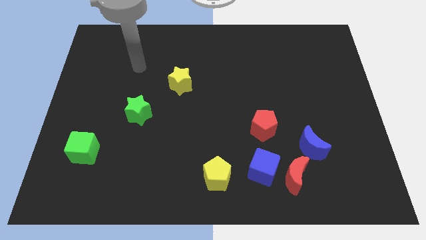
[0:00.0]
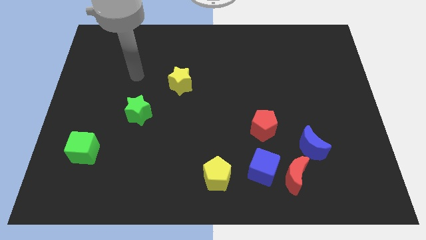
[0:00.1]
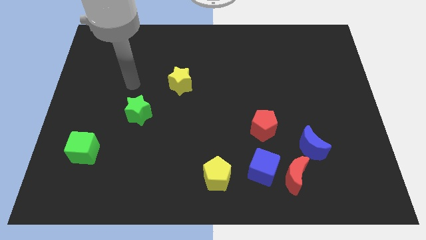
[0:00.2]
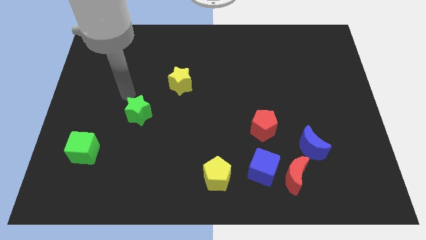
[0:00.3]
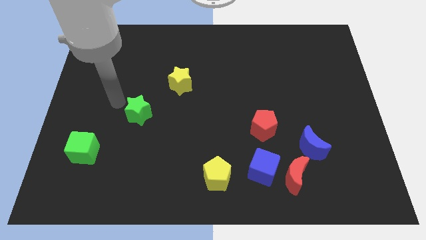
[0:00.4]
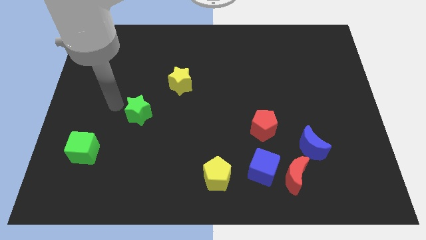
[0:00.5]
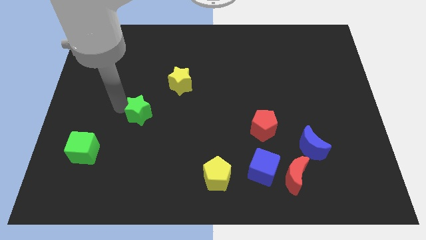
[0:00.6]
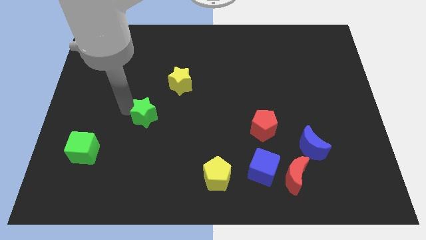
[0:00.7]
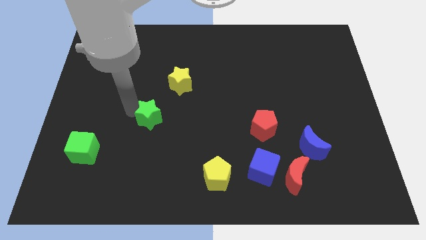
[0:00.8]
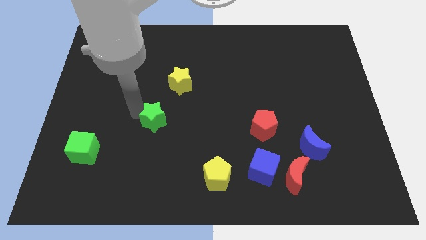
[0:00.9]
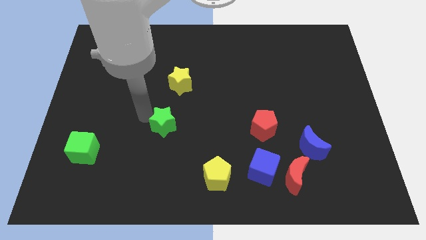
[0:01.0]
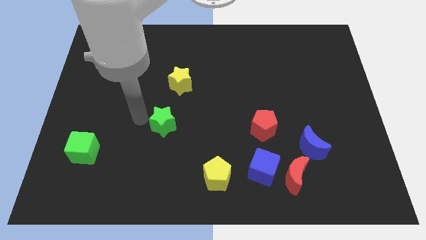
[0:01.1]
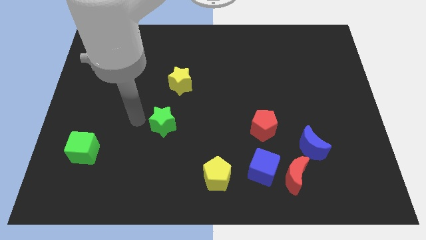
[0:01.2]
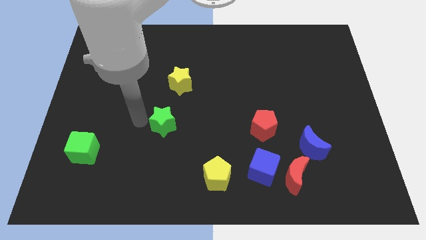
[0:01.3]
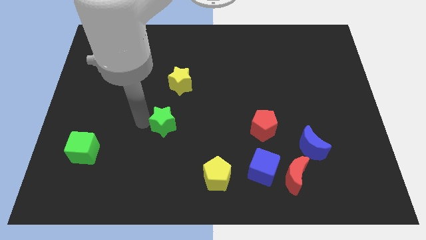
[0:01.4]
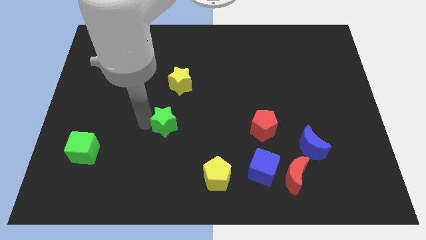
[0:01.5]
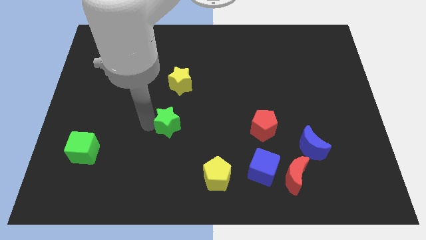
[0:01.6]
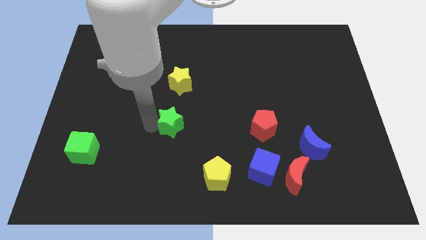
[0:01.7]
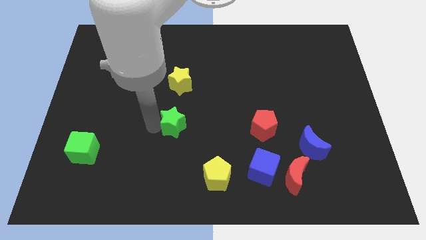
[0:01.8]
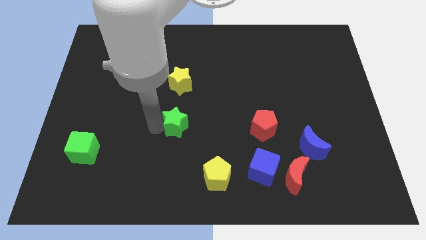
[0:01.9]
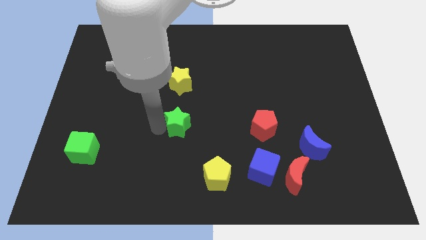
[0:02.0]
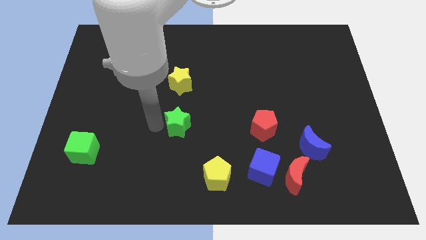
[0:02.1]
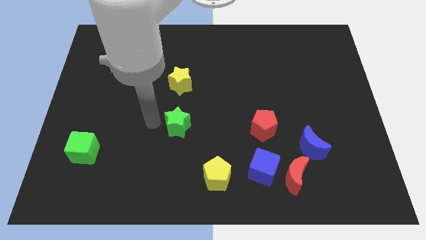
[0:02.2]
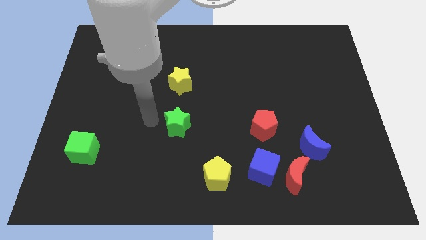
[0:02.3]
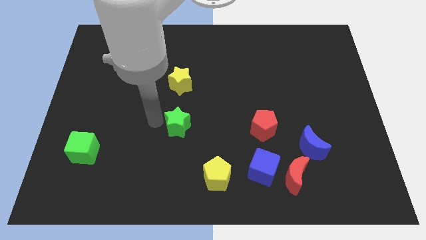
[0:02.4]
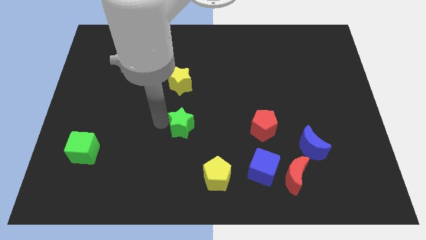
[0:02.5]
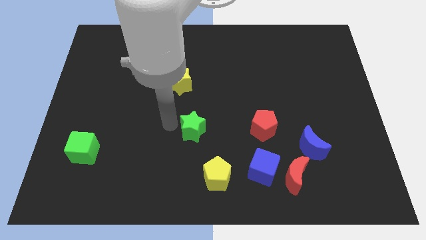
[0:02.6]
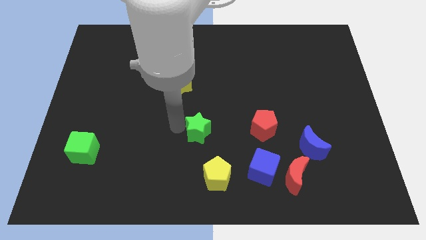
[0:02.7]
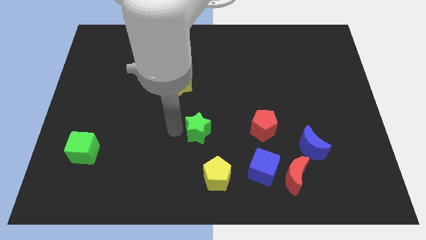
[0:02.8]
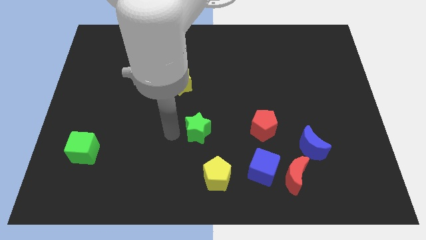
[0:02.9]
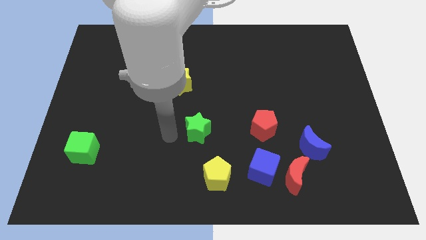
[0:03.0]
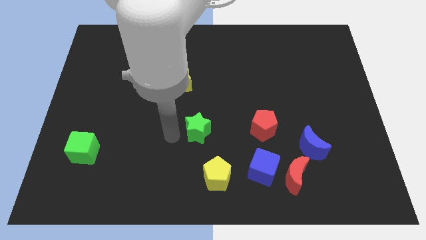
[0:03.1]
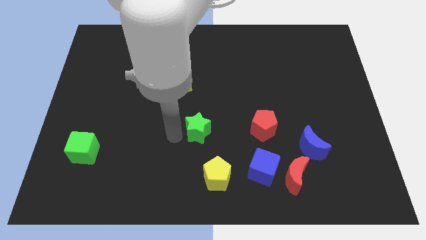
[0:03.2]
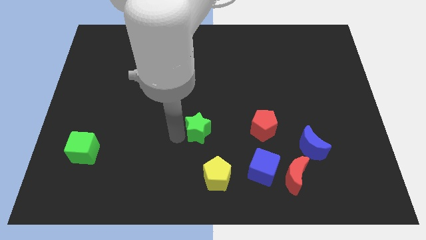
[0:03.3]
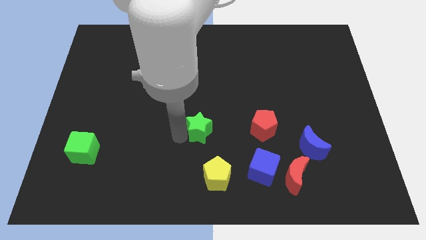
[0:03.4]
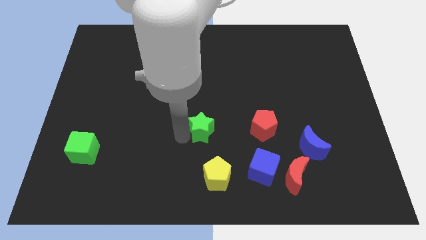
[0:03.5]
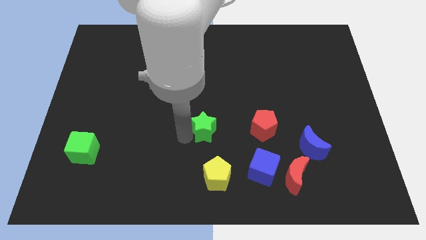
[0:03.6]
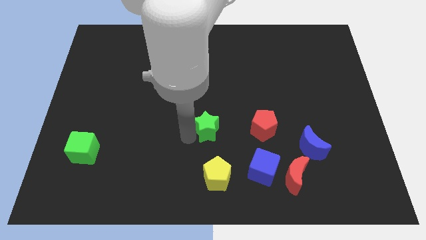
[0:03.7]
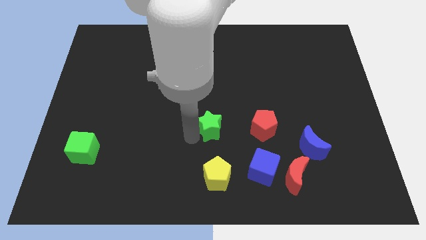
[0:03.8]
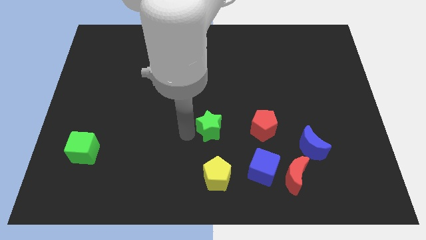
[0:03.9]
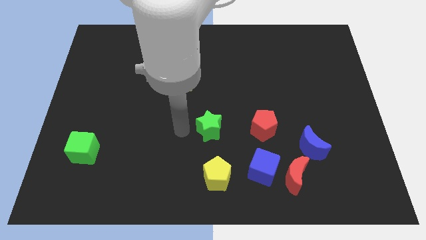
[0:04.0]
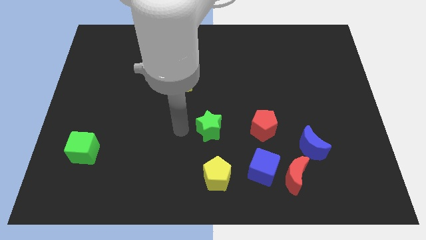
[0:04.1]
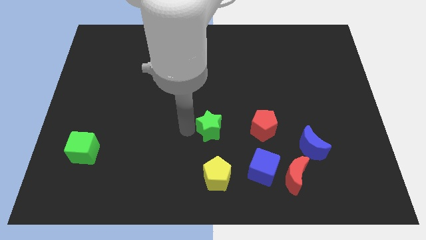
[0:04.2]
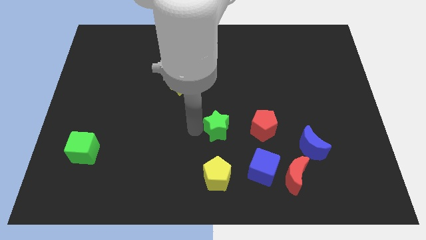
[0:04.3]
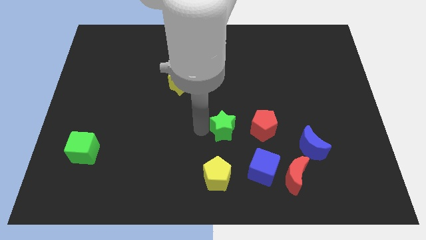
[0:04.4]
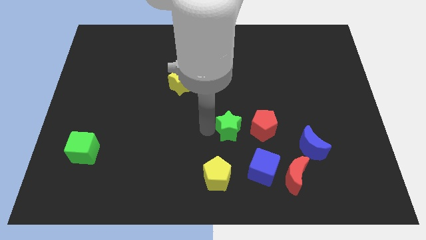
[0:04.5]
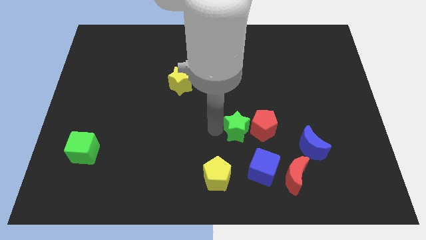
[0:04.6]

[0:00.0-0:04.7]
slide the green star towards the red pentagon

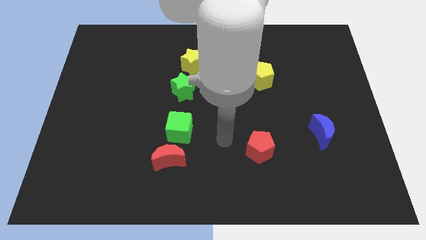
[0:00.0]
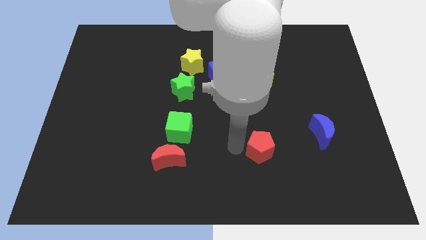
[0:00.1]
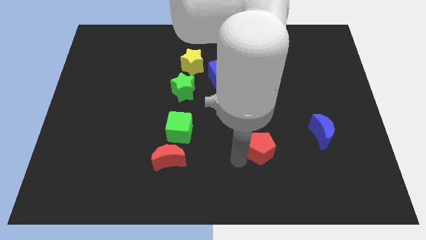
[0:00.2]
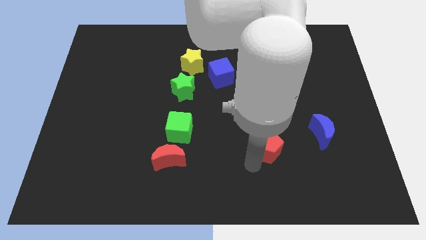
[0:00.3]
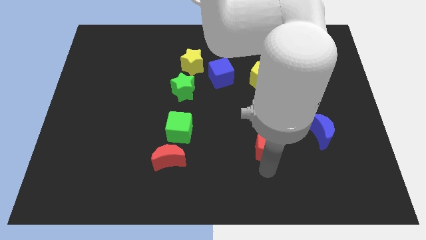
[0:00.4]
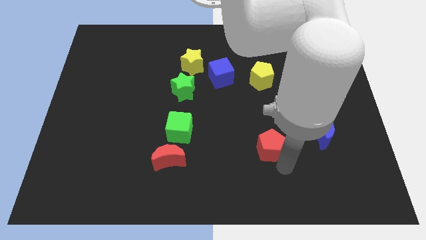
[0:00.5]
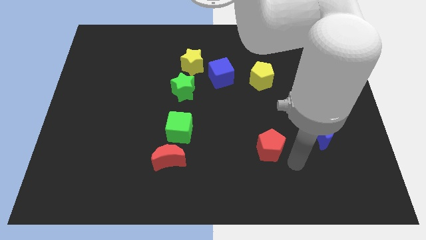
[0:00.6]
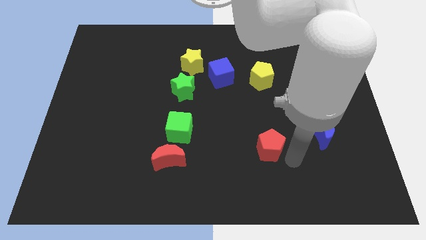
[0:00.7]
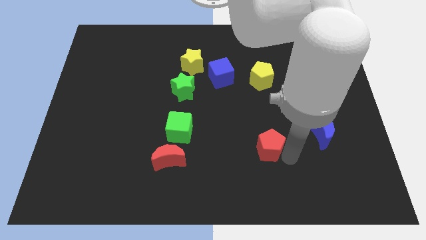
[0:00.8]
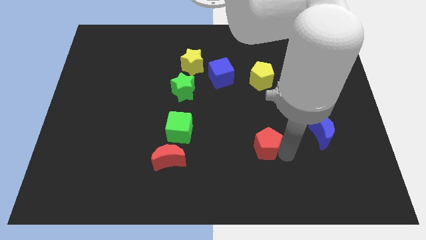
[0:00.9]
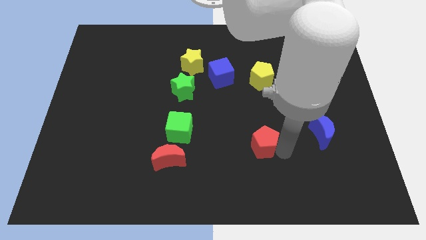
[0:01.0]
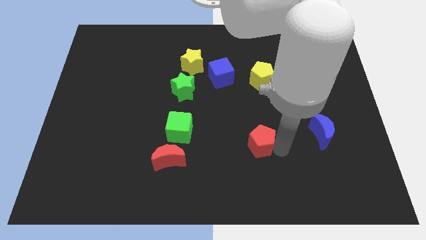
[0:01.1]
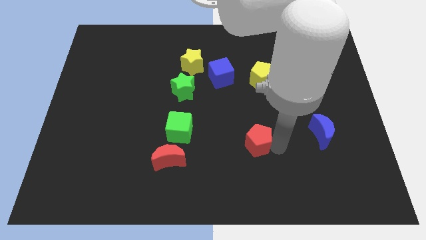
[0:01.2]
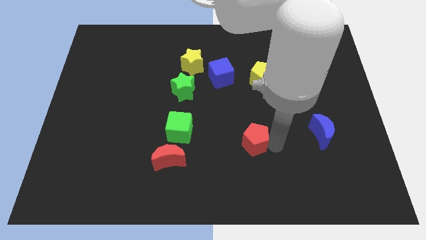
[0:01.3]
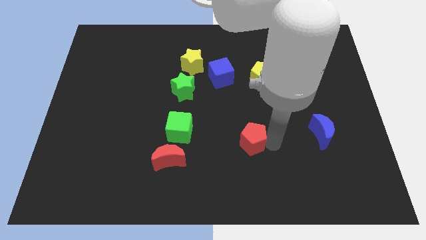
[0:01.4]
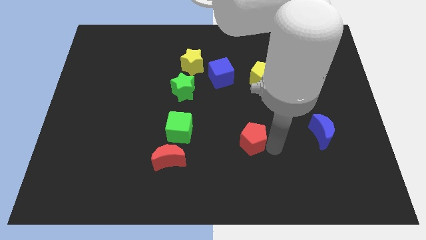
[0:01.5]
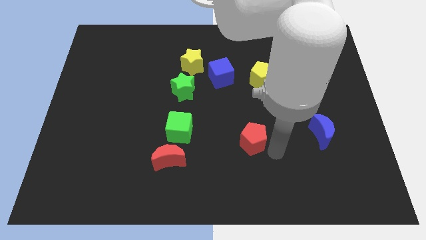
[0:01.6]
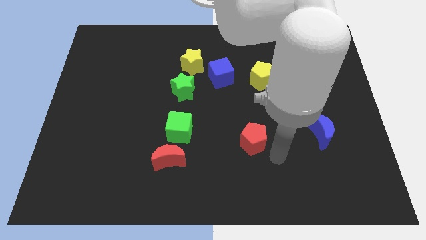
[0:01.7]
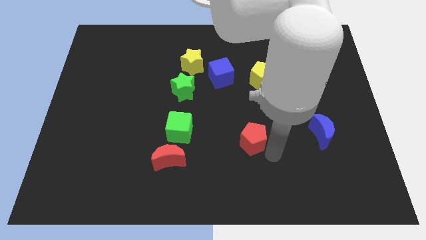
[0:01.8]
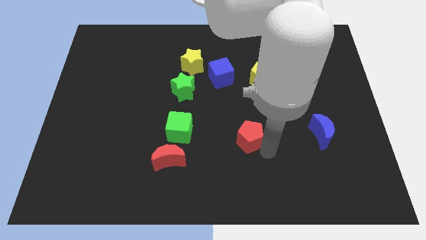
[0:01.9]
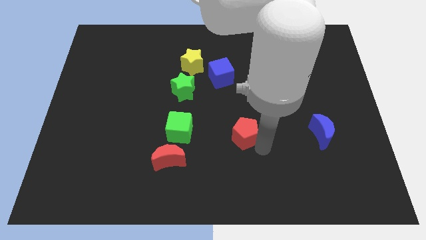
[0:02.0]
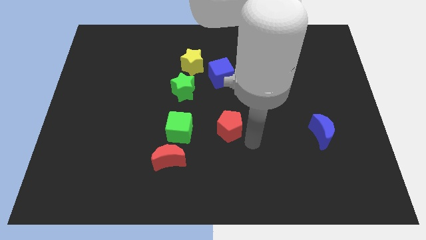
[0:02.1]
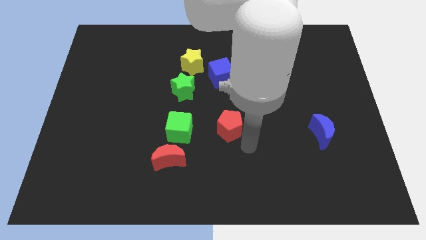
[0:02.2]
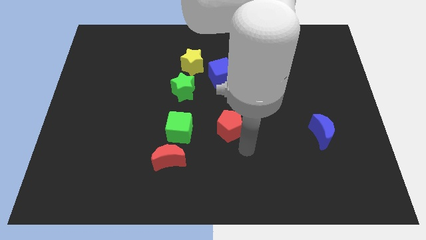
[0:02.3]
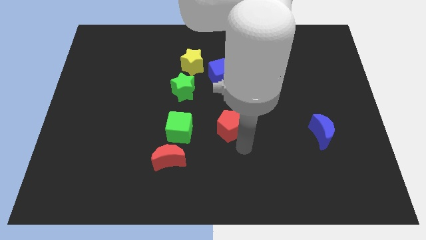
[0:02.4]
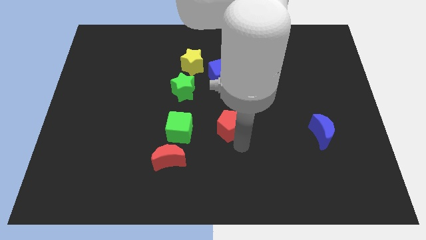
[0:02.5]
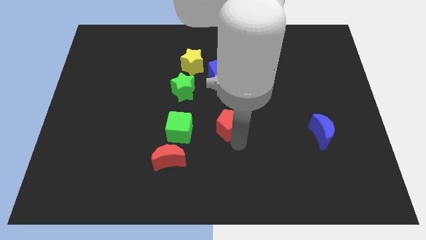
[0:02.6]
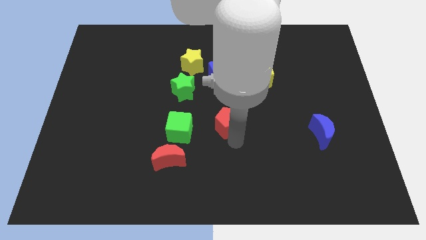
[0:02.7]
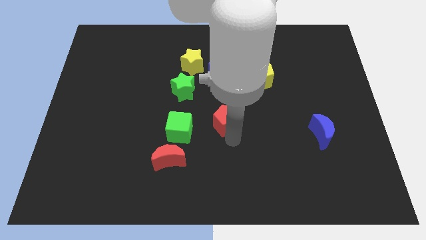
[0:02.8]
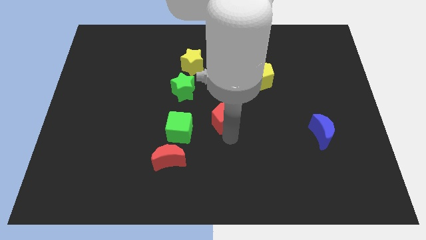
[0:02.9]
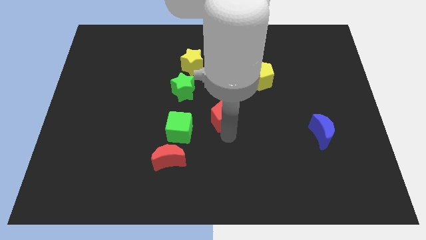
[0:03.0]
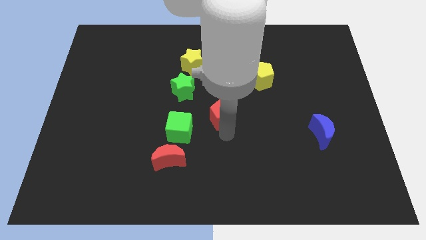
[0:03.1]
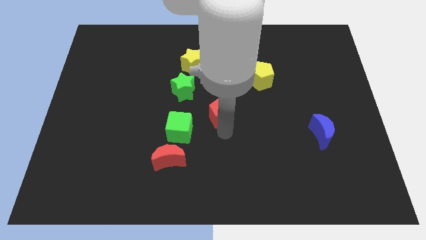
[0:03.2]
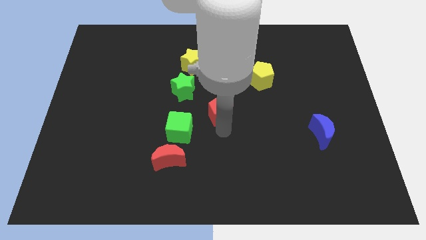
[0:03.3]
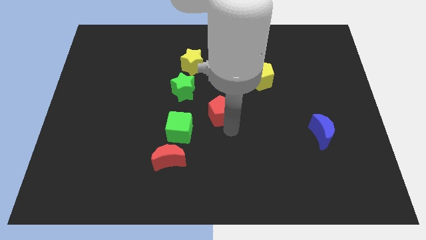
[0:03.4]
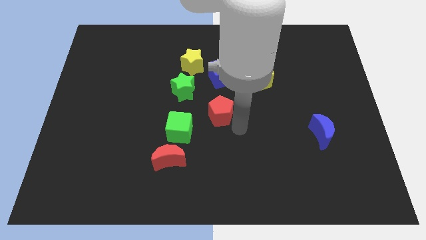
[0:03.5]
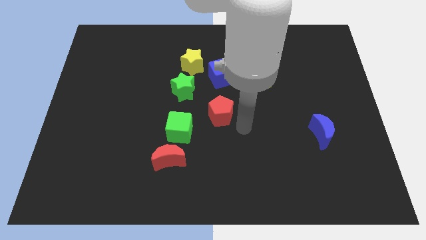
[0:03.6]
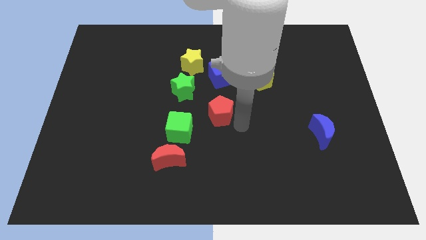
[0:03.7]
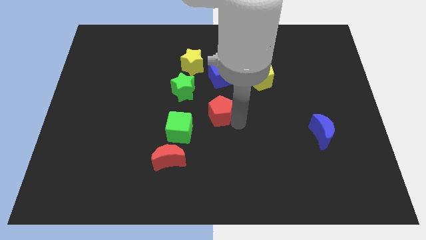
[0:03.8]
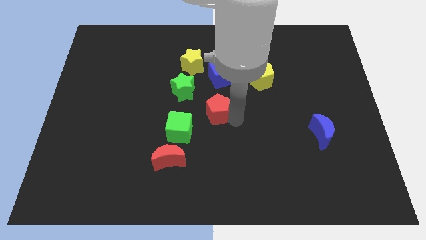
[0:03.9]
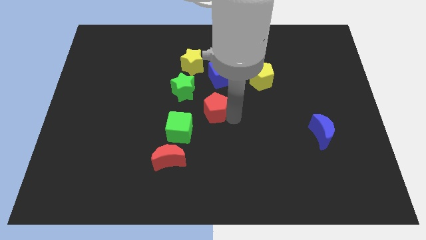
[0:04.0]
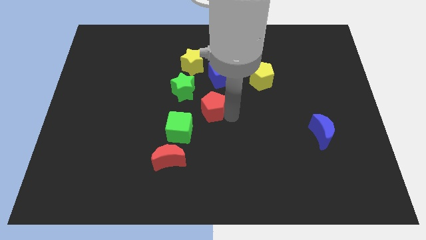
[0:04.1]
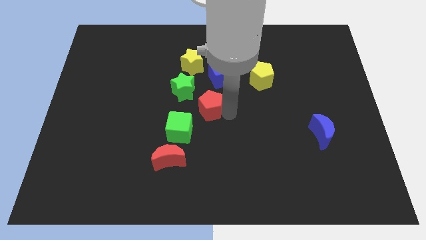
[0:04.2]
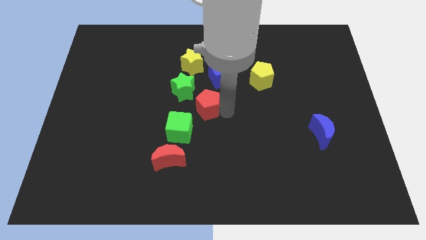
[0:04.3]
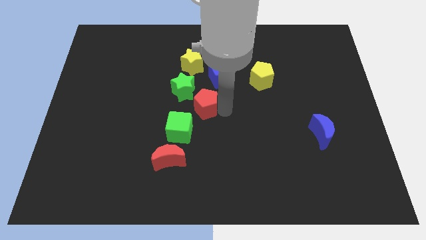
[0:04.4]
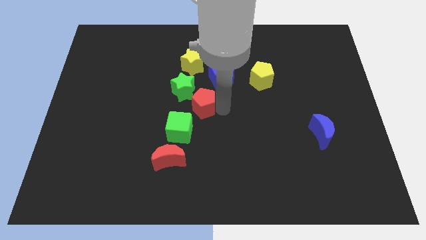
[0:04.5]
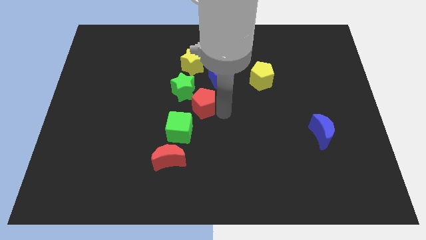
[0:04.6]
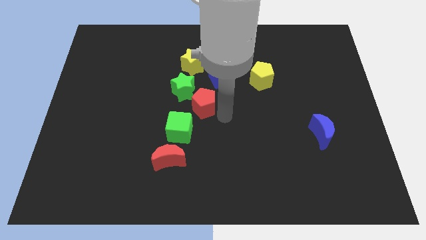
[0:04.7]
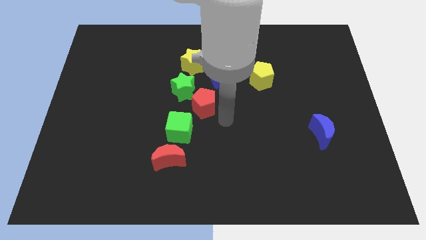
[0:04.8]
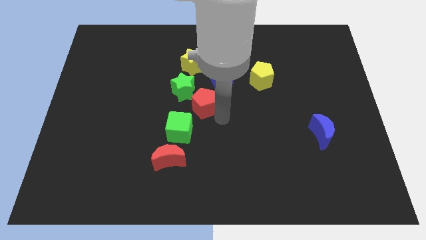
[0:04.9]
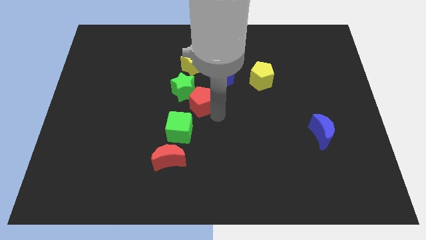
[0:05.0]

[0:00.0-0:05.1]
push the red pentagon next to the green star
